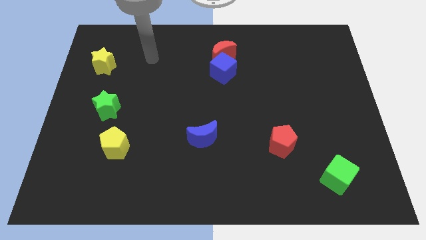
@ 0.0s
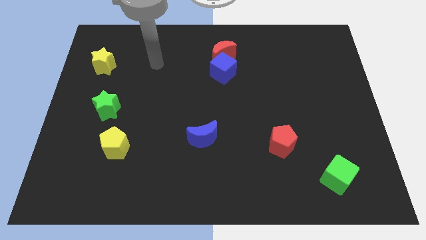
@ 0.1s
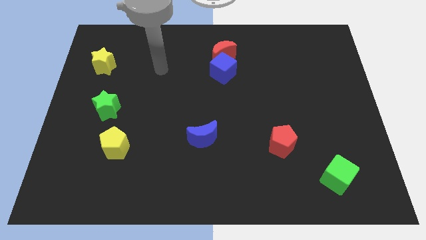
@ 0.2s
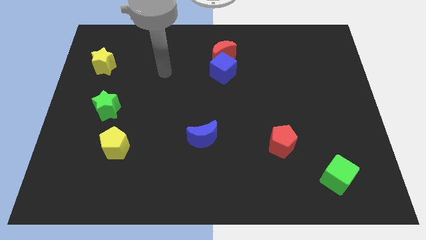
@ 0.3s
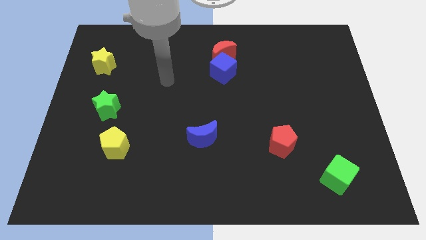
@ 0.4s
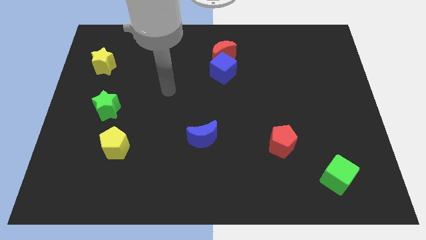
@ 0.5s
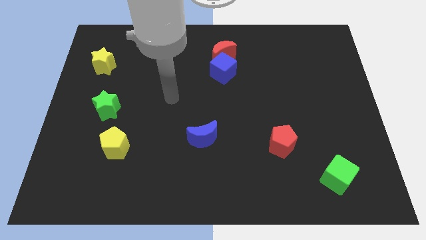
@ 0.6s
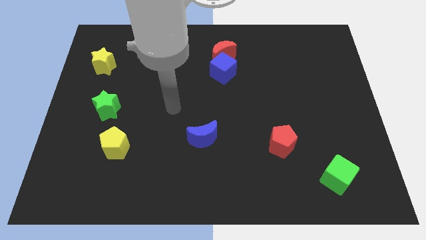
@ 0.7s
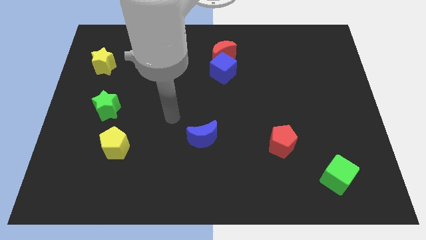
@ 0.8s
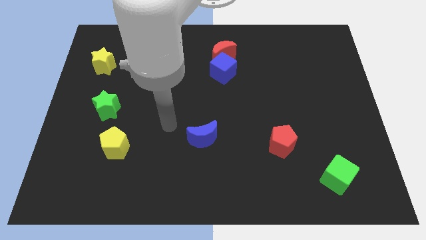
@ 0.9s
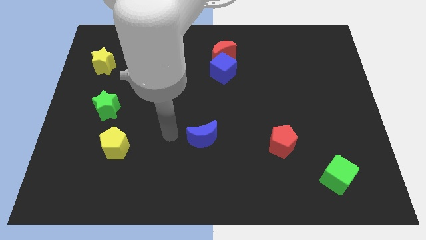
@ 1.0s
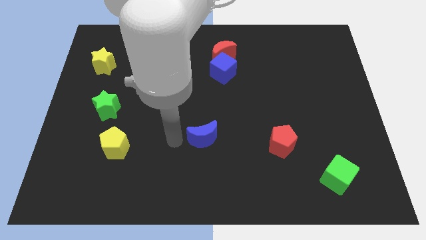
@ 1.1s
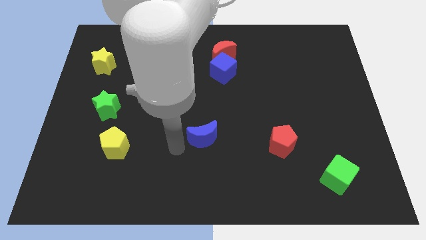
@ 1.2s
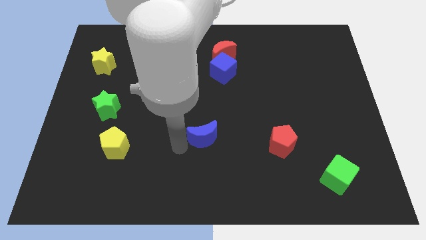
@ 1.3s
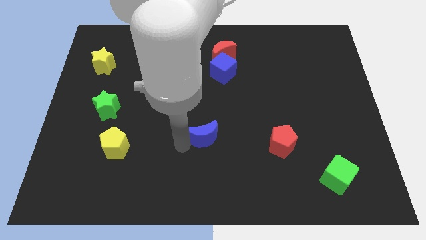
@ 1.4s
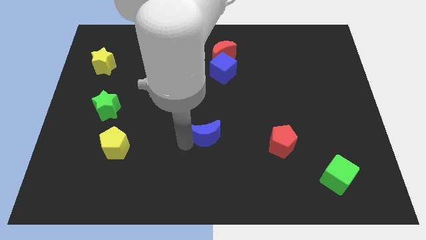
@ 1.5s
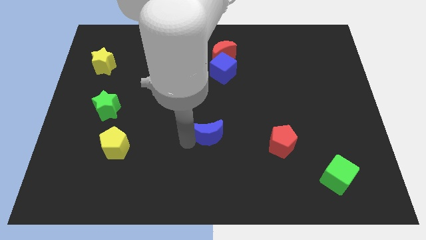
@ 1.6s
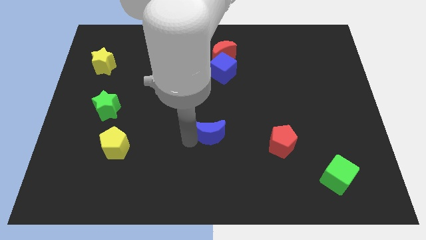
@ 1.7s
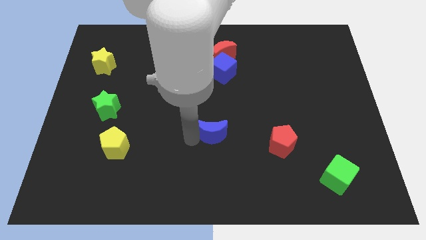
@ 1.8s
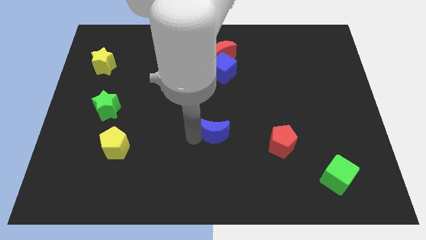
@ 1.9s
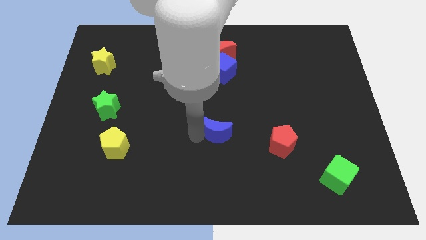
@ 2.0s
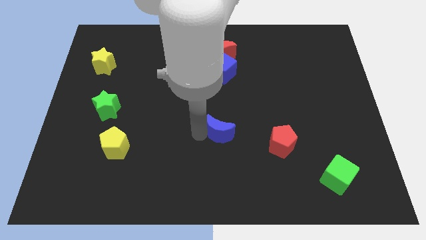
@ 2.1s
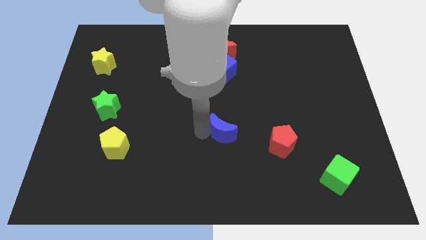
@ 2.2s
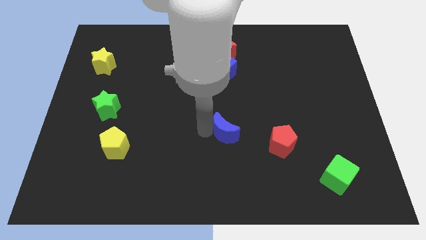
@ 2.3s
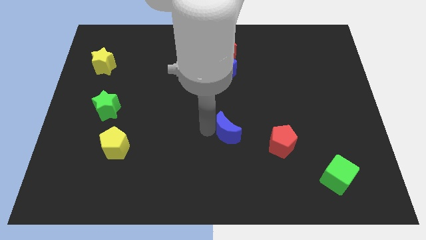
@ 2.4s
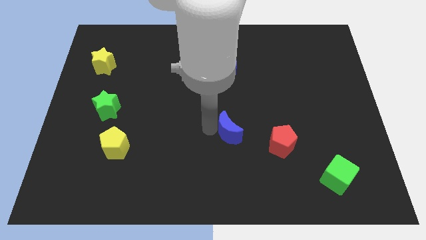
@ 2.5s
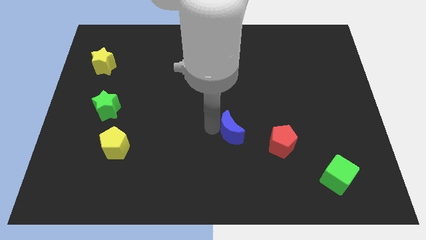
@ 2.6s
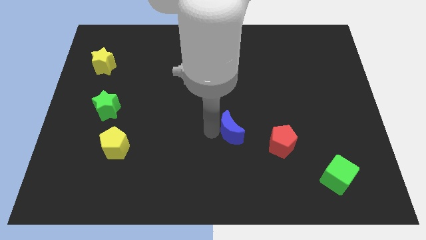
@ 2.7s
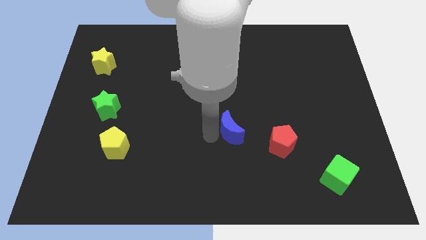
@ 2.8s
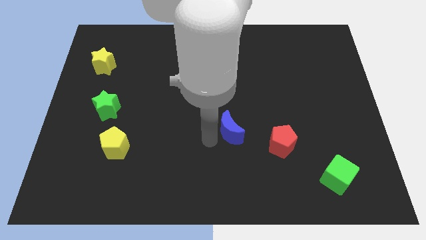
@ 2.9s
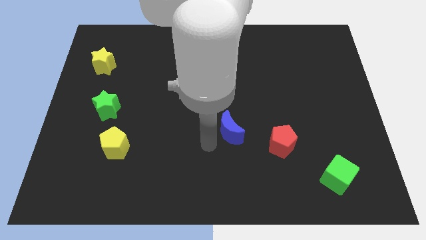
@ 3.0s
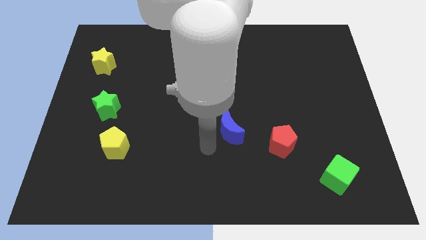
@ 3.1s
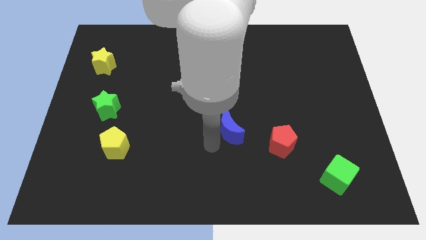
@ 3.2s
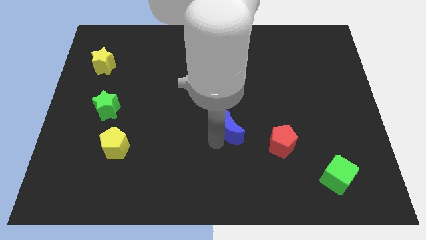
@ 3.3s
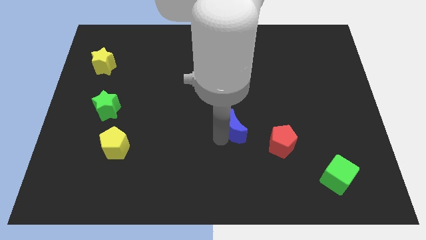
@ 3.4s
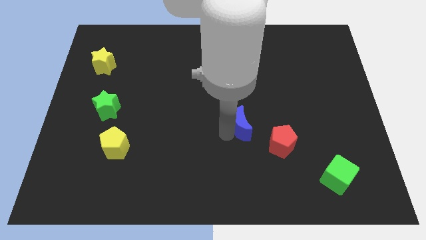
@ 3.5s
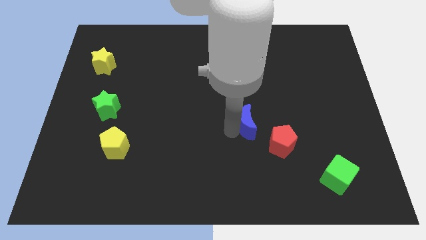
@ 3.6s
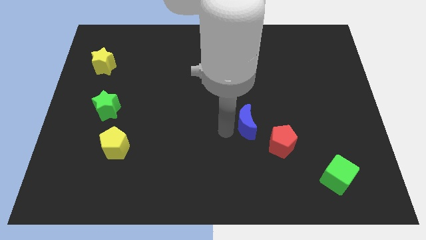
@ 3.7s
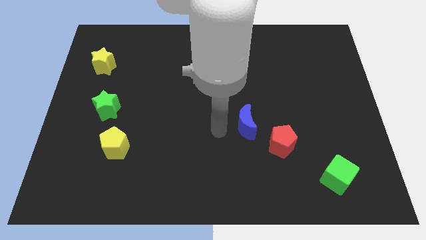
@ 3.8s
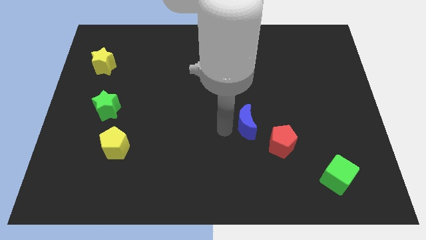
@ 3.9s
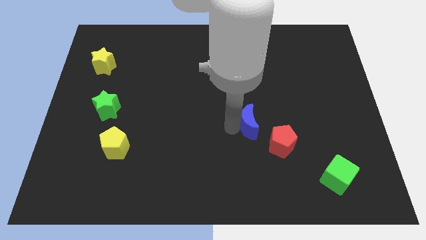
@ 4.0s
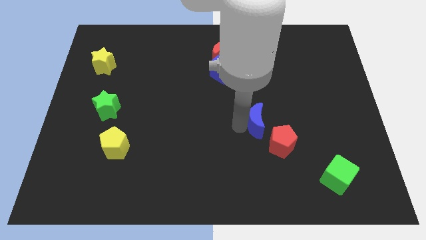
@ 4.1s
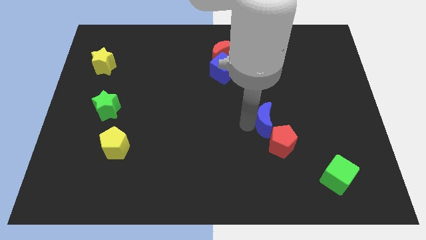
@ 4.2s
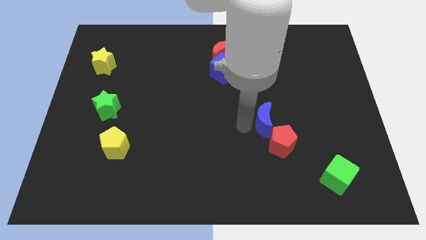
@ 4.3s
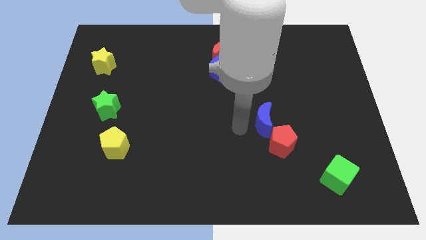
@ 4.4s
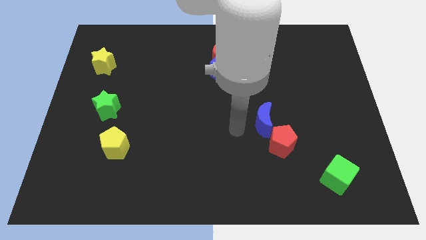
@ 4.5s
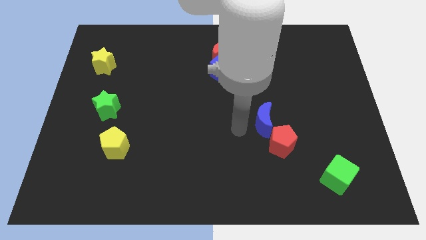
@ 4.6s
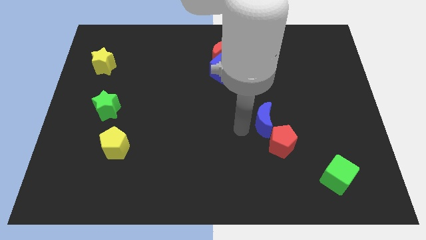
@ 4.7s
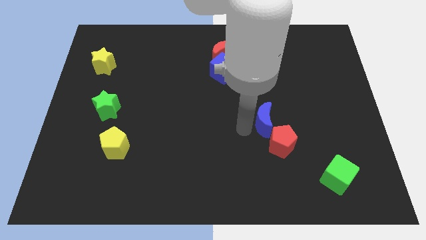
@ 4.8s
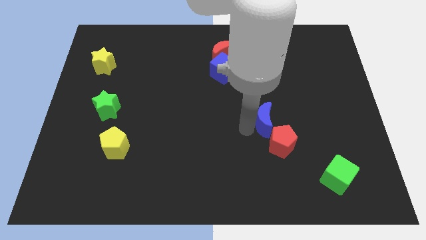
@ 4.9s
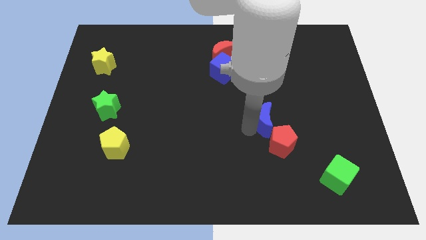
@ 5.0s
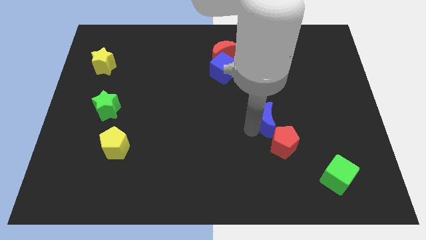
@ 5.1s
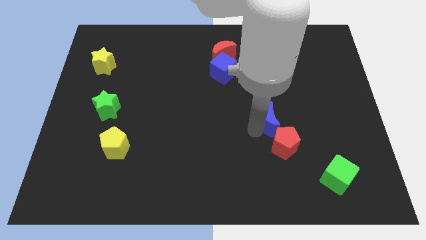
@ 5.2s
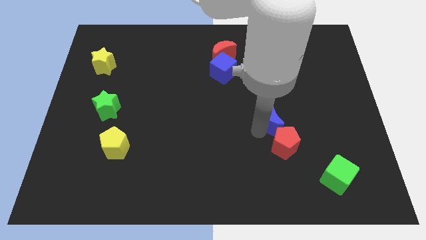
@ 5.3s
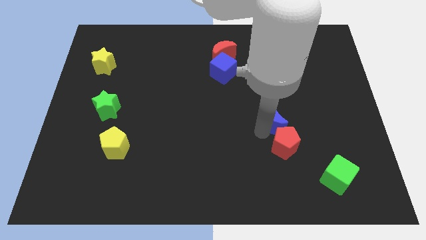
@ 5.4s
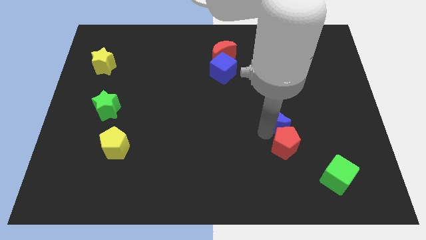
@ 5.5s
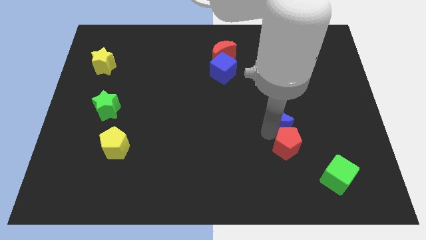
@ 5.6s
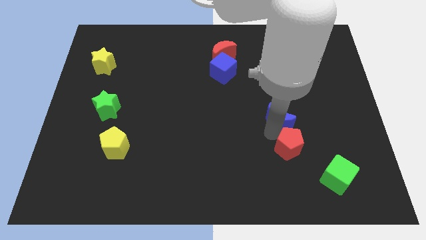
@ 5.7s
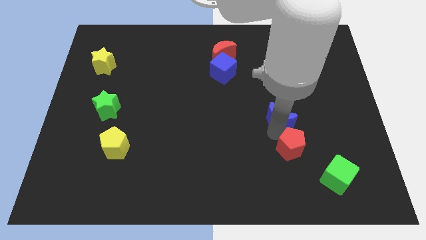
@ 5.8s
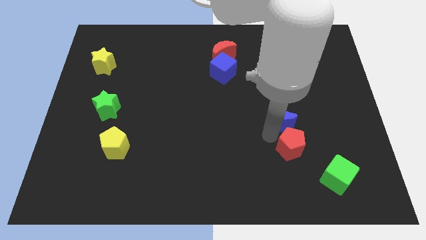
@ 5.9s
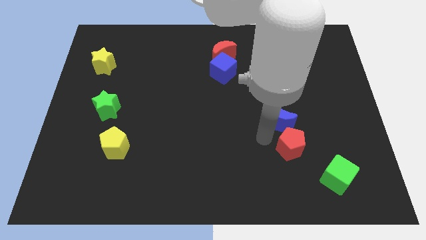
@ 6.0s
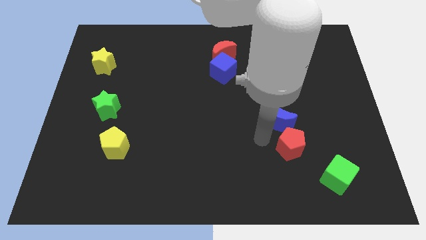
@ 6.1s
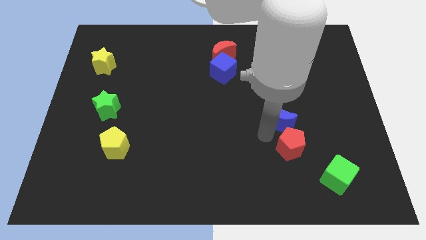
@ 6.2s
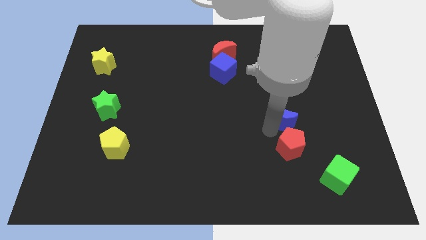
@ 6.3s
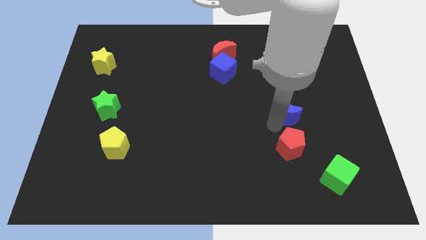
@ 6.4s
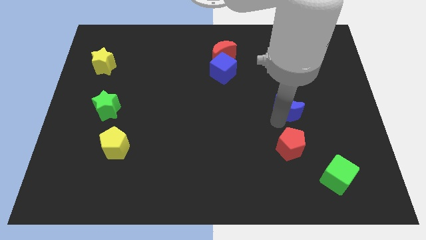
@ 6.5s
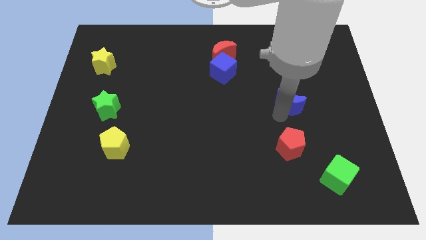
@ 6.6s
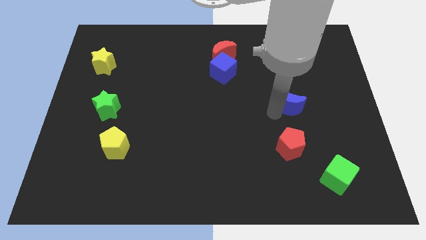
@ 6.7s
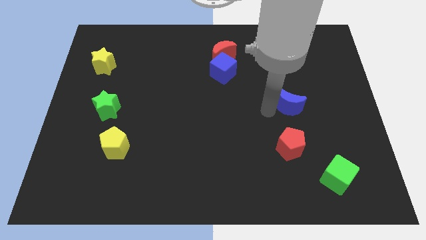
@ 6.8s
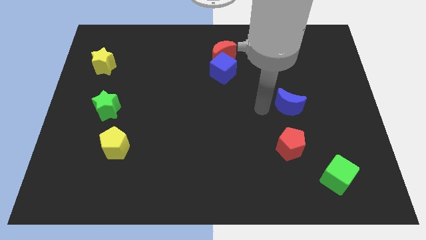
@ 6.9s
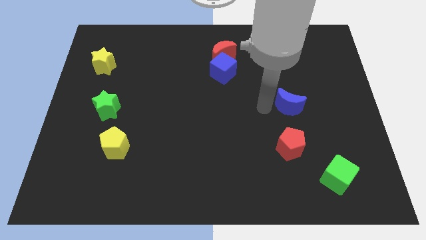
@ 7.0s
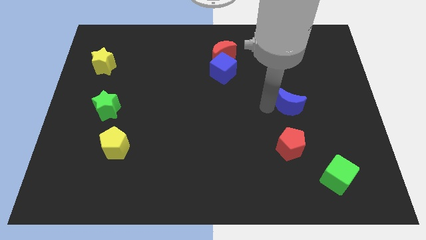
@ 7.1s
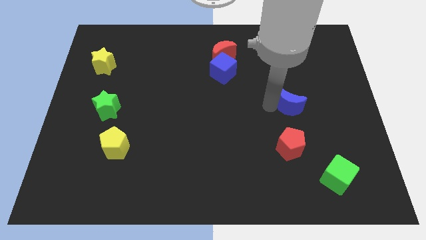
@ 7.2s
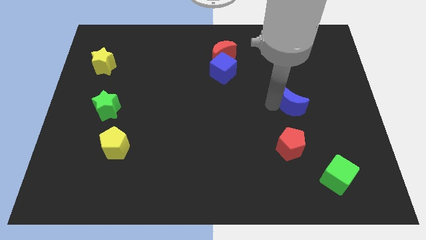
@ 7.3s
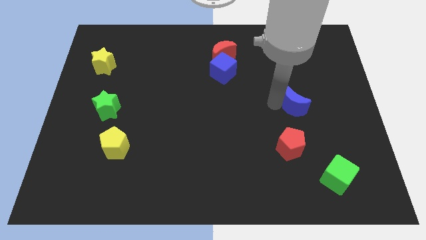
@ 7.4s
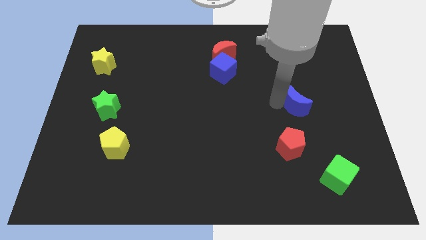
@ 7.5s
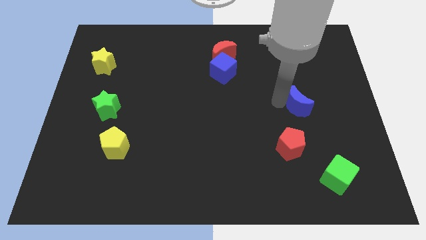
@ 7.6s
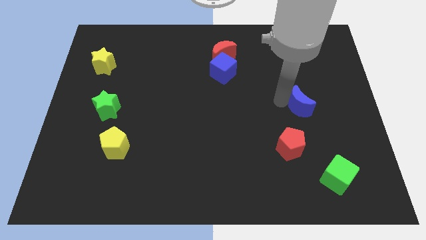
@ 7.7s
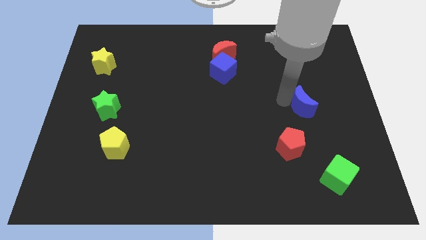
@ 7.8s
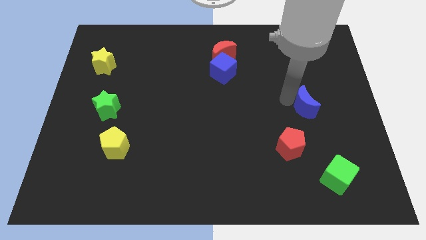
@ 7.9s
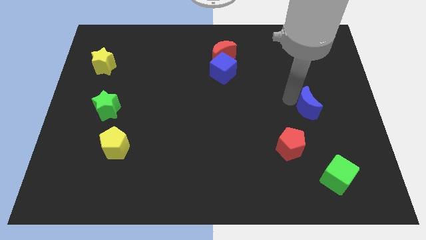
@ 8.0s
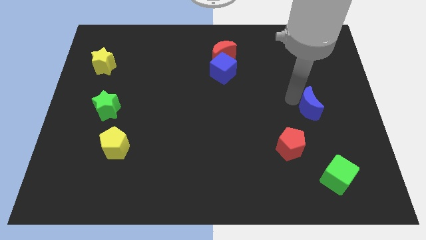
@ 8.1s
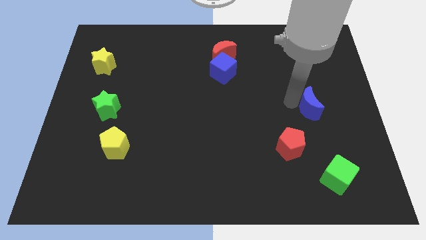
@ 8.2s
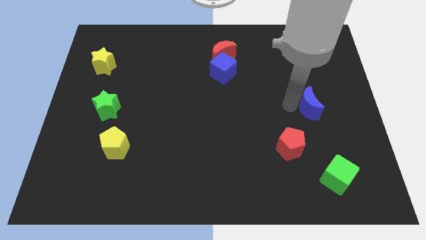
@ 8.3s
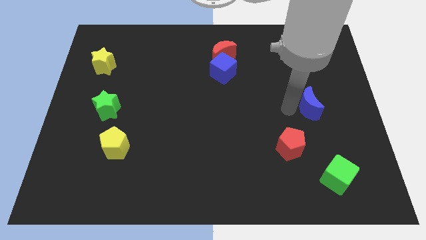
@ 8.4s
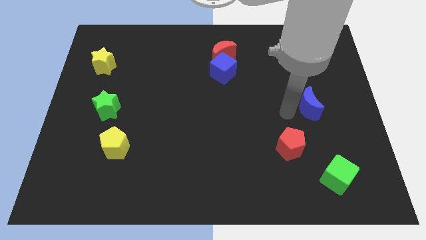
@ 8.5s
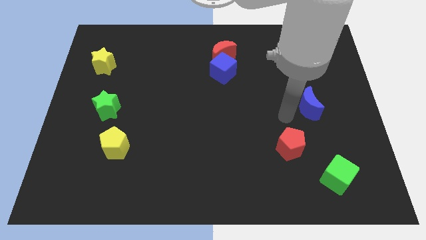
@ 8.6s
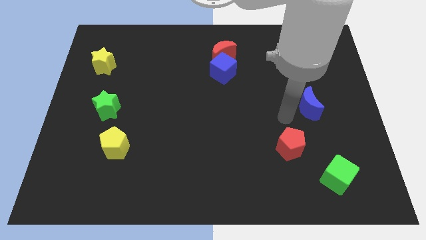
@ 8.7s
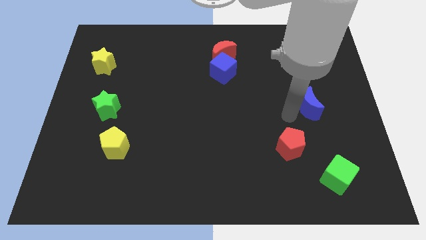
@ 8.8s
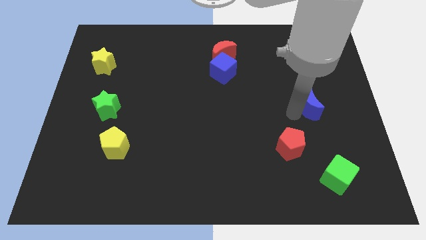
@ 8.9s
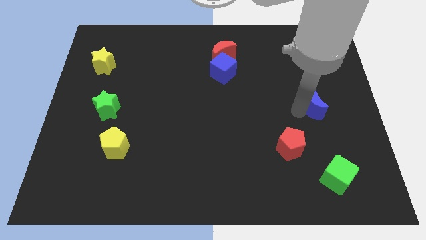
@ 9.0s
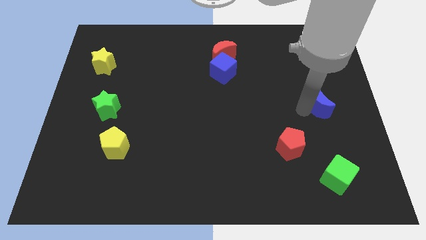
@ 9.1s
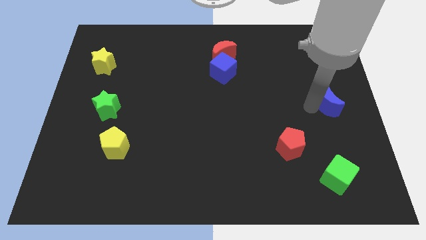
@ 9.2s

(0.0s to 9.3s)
move the blue moon to the right side
